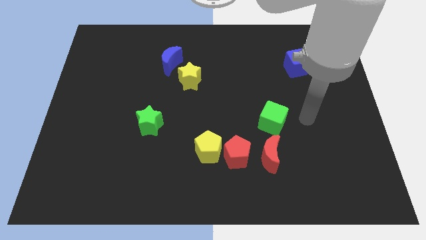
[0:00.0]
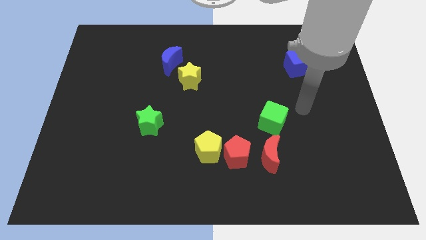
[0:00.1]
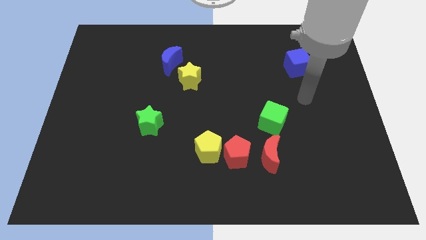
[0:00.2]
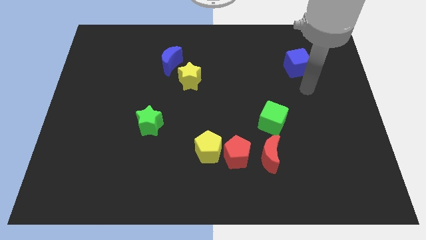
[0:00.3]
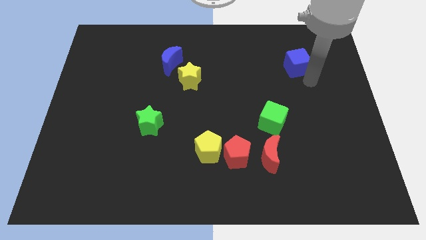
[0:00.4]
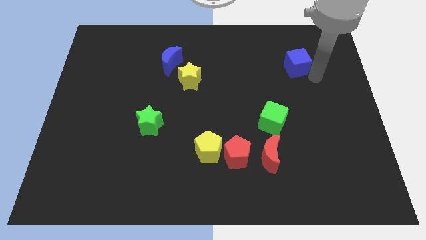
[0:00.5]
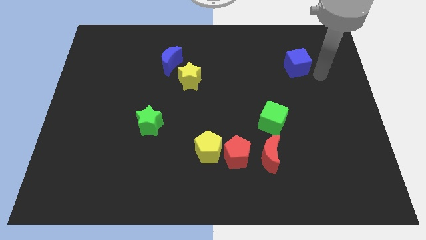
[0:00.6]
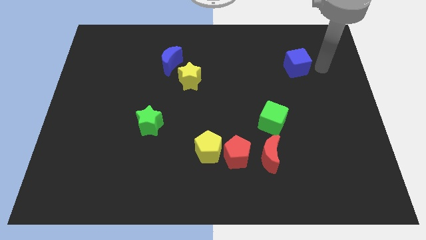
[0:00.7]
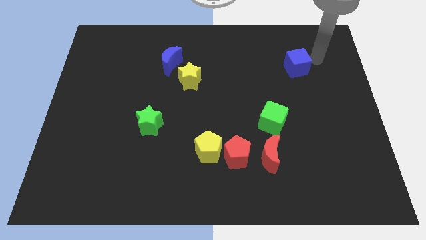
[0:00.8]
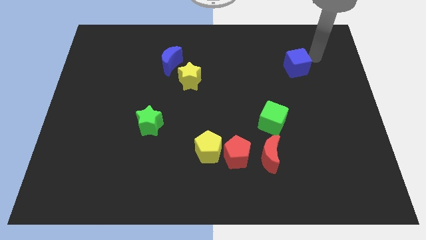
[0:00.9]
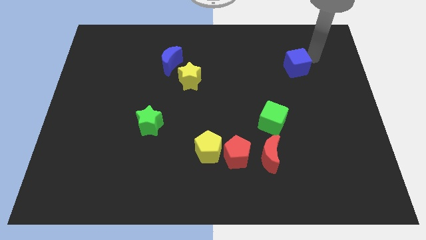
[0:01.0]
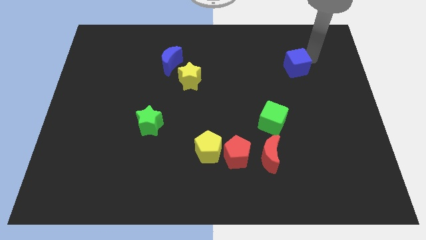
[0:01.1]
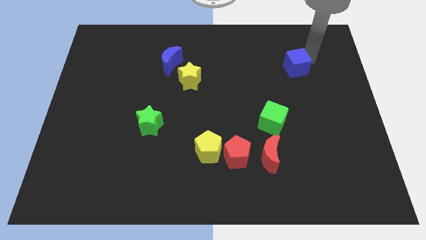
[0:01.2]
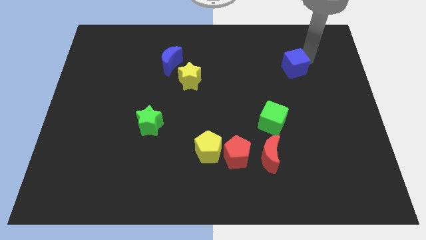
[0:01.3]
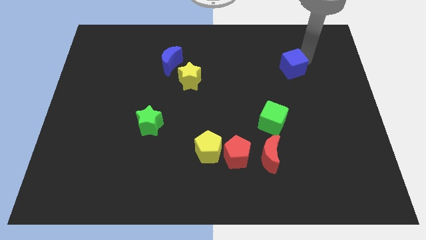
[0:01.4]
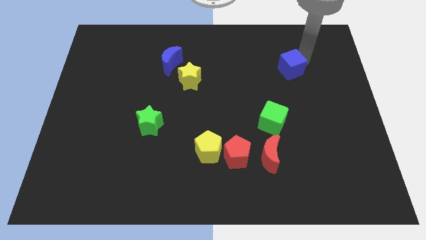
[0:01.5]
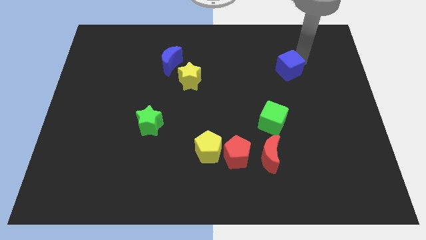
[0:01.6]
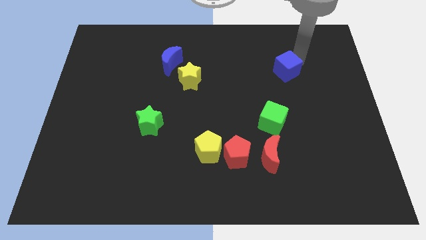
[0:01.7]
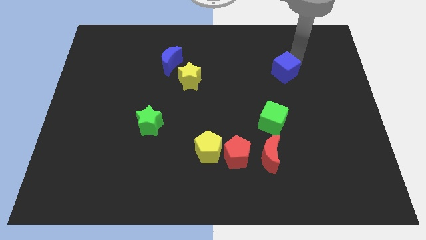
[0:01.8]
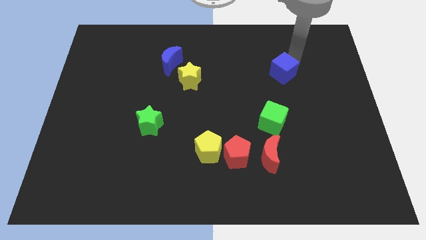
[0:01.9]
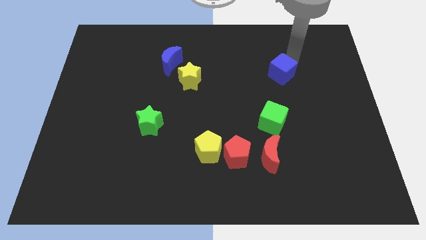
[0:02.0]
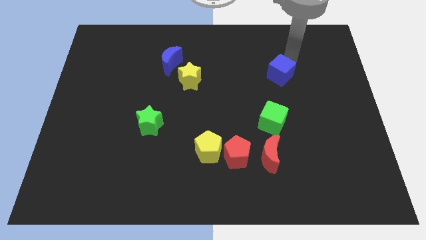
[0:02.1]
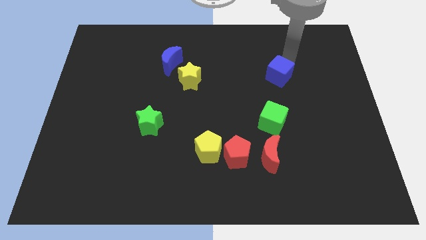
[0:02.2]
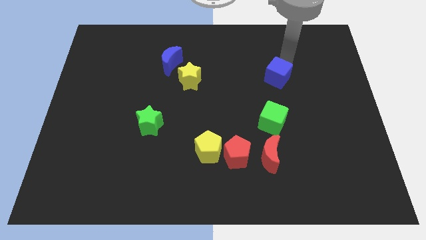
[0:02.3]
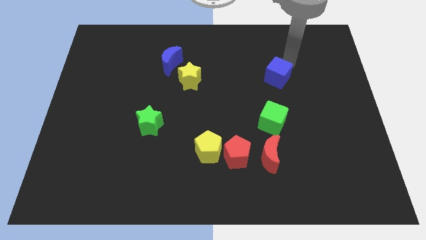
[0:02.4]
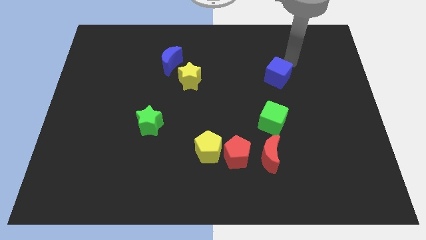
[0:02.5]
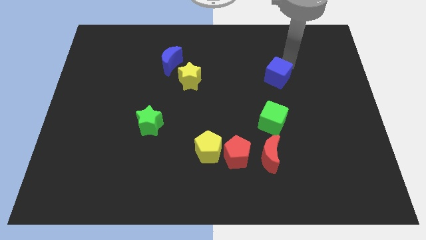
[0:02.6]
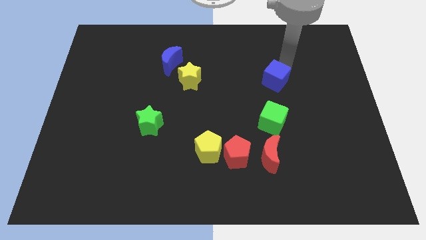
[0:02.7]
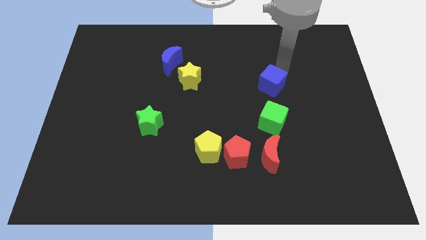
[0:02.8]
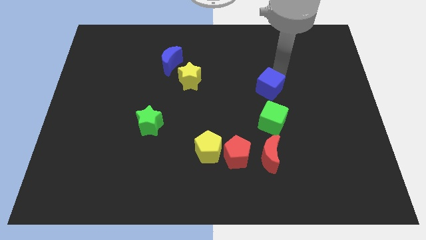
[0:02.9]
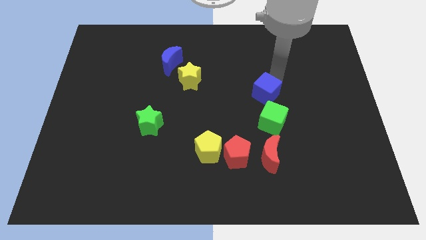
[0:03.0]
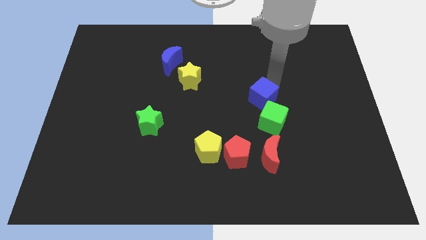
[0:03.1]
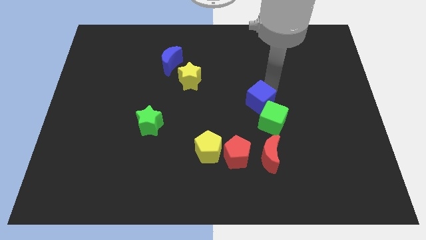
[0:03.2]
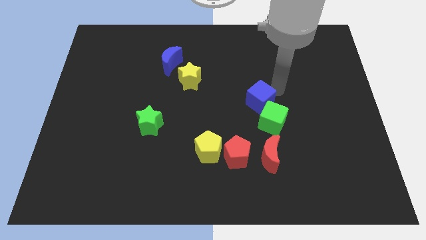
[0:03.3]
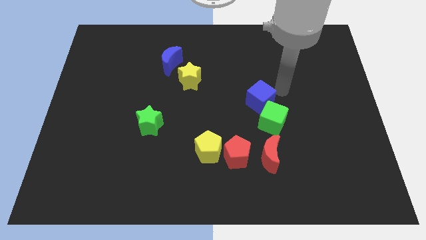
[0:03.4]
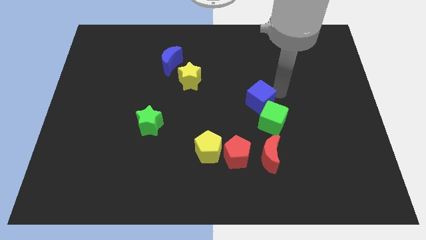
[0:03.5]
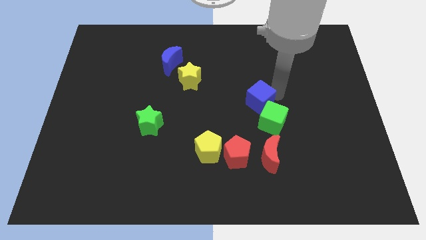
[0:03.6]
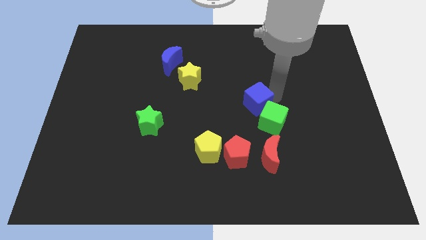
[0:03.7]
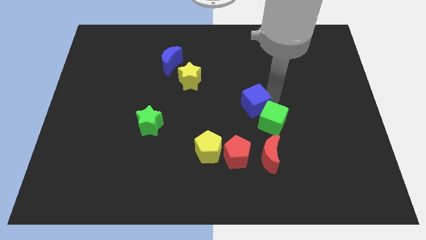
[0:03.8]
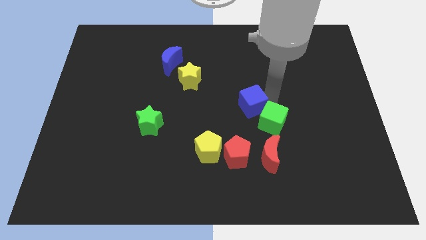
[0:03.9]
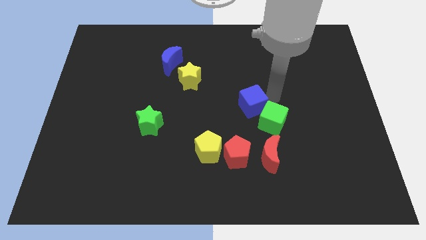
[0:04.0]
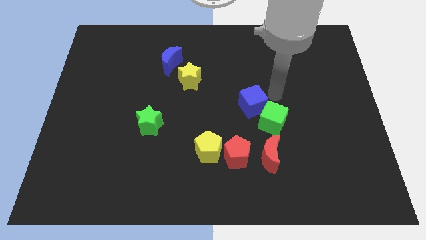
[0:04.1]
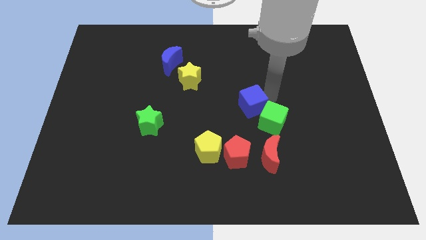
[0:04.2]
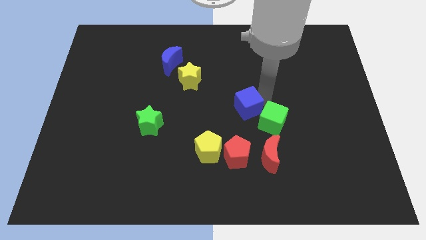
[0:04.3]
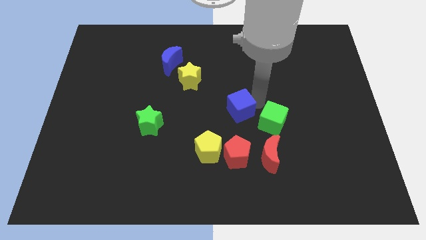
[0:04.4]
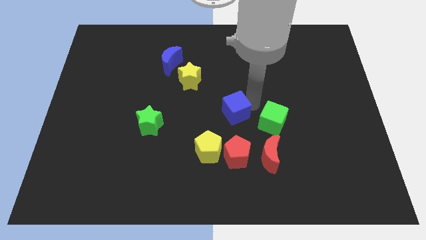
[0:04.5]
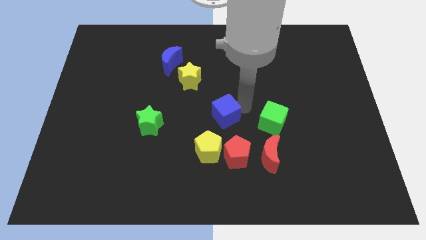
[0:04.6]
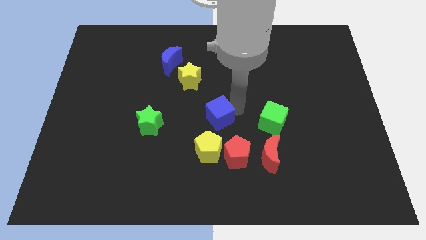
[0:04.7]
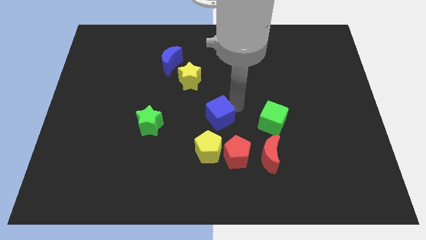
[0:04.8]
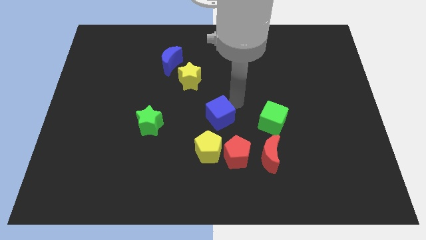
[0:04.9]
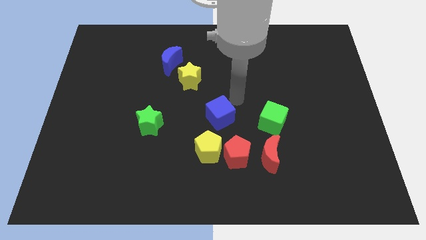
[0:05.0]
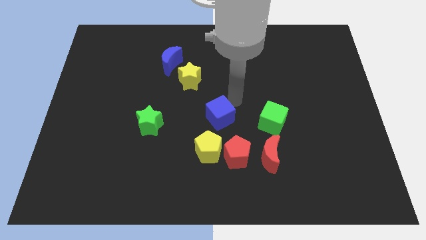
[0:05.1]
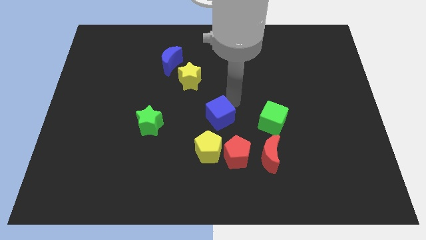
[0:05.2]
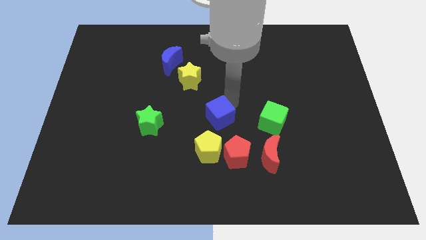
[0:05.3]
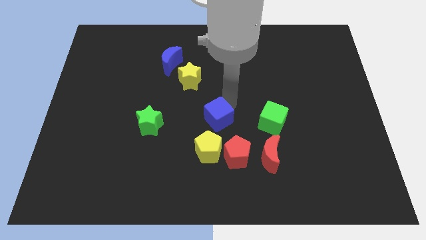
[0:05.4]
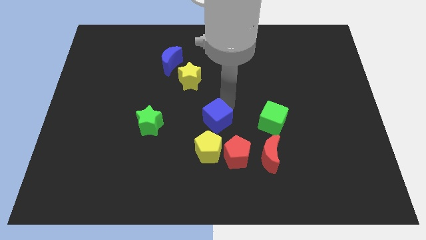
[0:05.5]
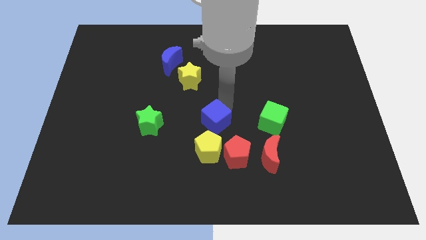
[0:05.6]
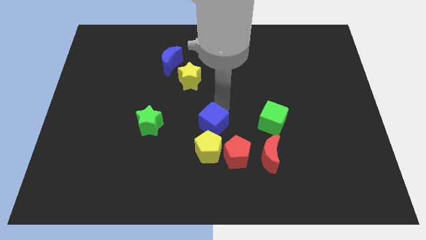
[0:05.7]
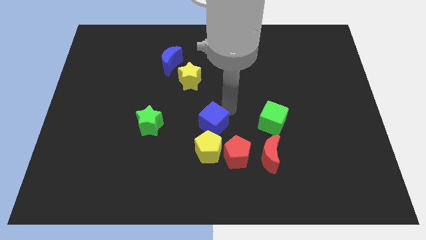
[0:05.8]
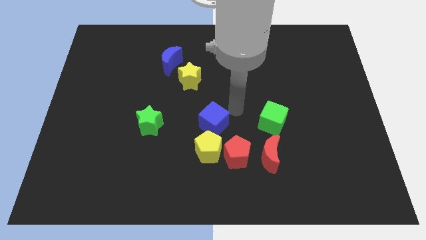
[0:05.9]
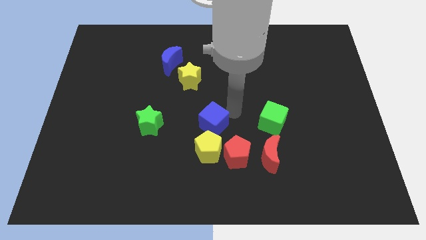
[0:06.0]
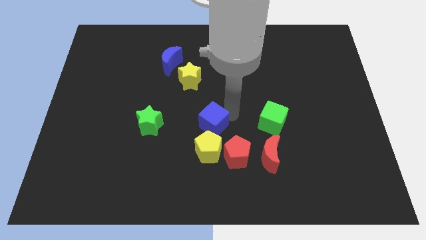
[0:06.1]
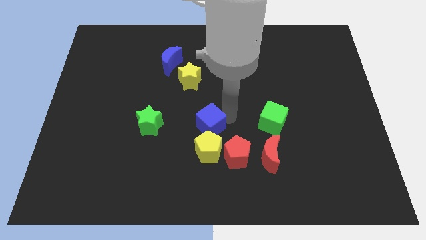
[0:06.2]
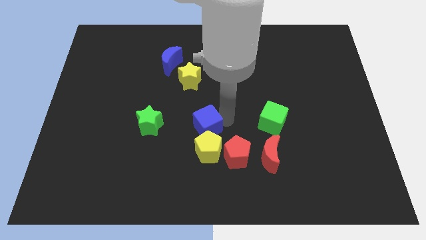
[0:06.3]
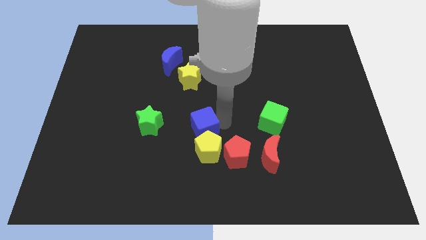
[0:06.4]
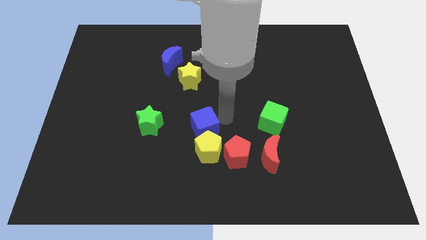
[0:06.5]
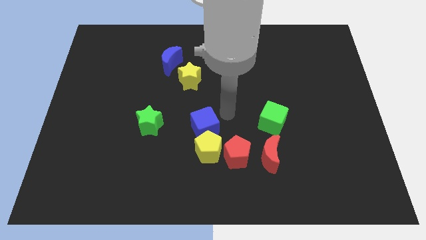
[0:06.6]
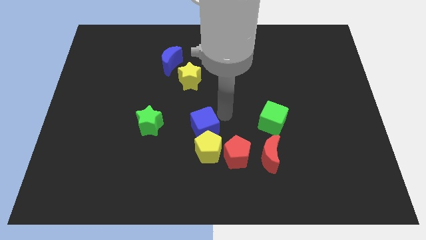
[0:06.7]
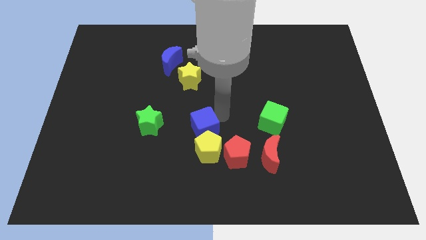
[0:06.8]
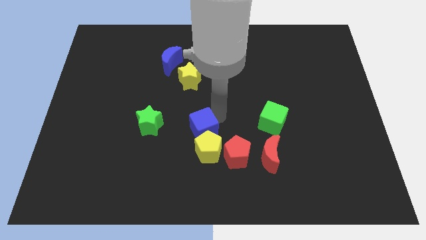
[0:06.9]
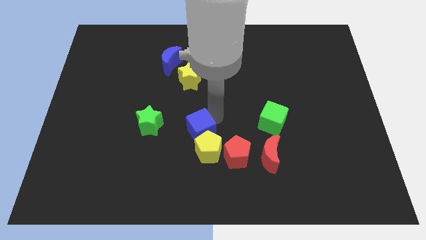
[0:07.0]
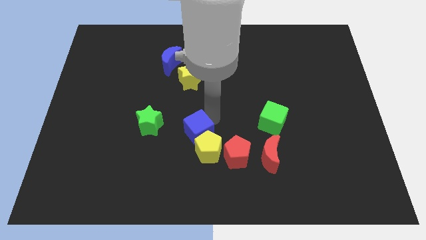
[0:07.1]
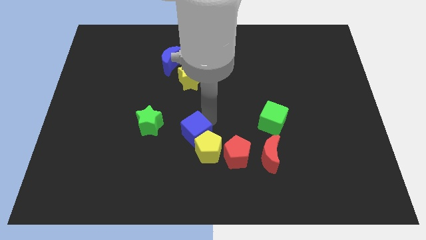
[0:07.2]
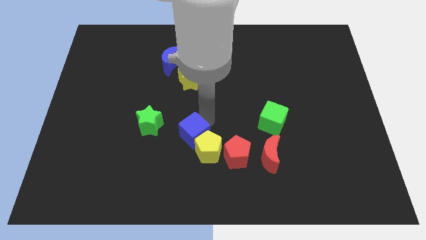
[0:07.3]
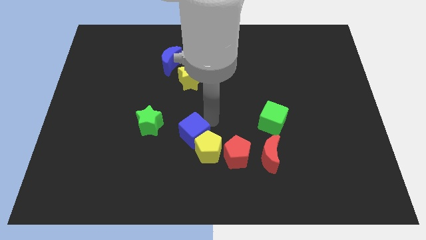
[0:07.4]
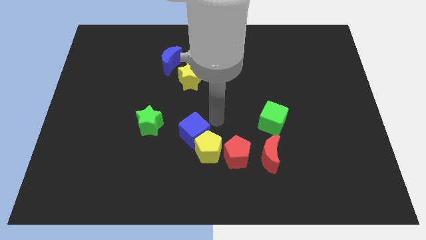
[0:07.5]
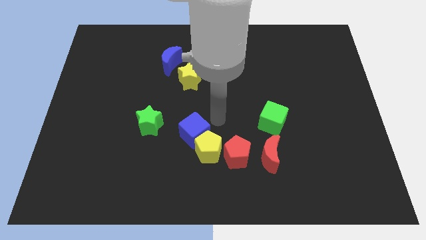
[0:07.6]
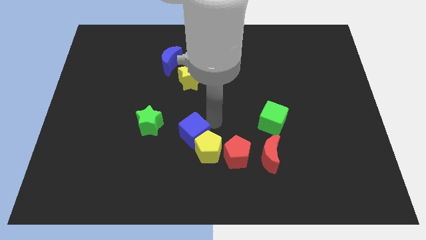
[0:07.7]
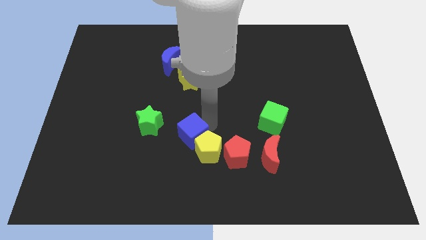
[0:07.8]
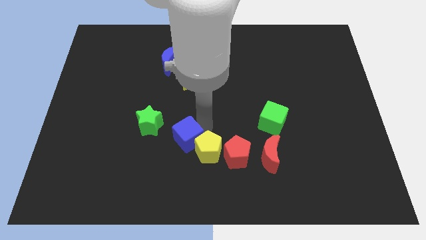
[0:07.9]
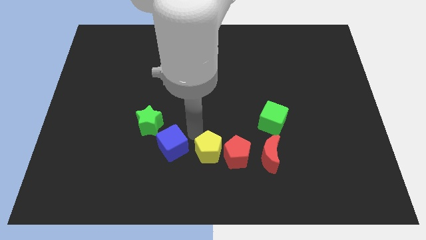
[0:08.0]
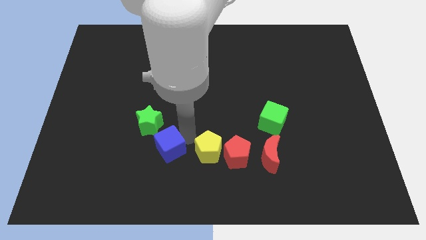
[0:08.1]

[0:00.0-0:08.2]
put the blue cube to the bottom side of the green star
